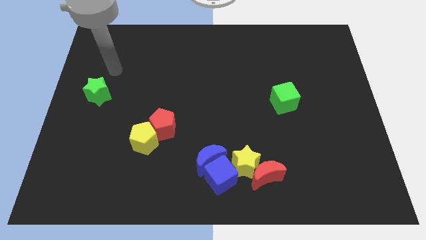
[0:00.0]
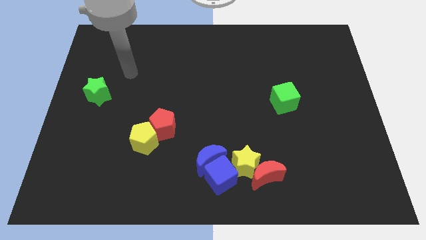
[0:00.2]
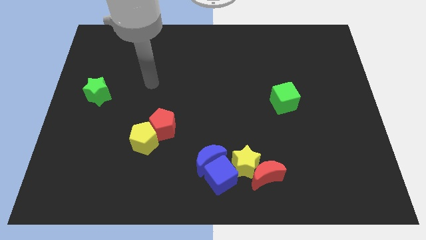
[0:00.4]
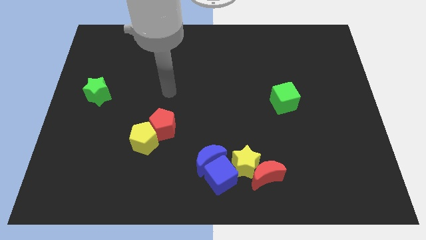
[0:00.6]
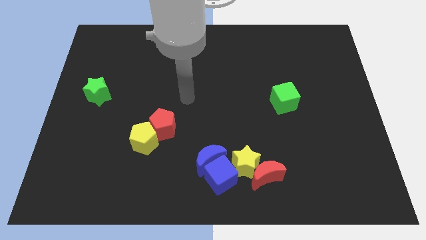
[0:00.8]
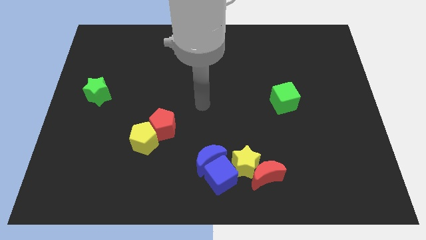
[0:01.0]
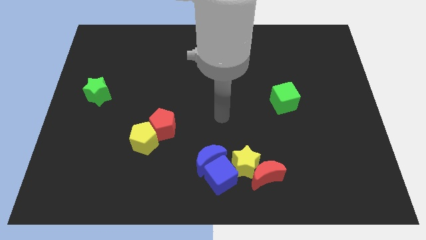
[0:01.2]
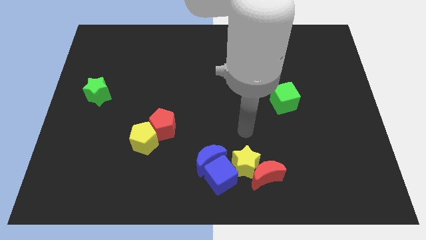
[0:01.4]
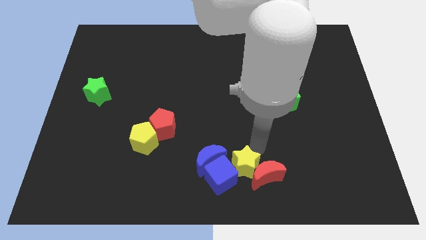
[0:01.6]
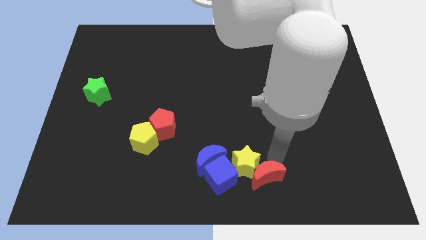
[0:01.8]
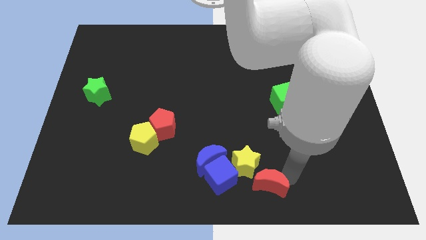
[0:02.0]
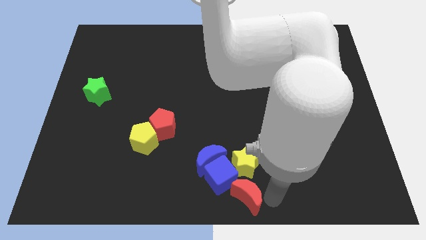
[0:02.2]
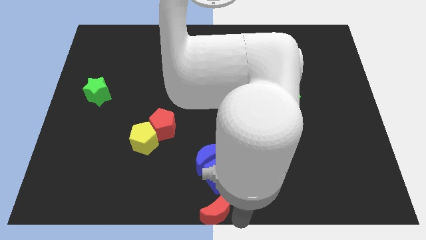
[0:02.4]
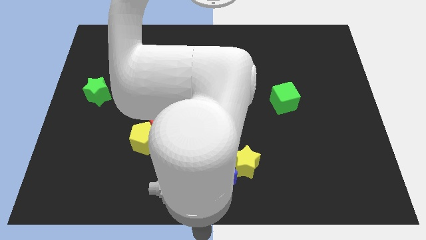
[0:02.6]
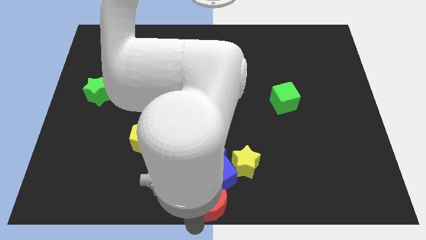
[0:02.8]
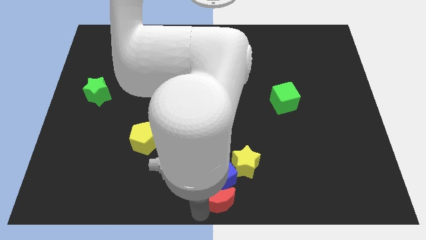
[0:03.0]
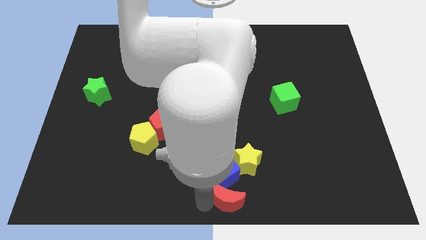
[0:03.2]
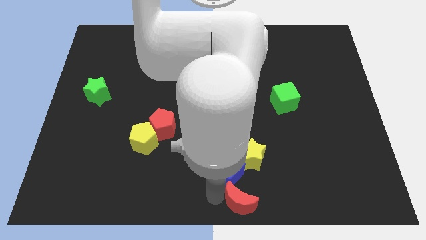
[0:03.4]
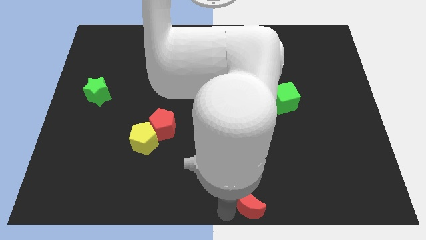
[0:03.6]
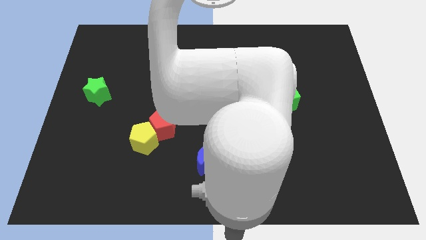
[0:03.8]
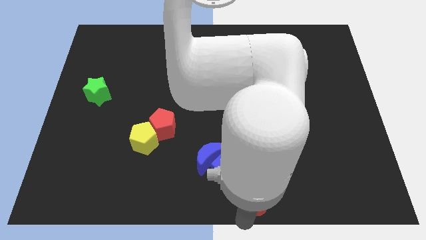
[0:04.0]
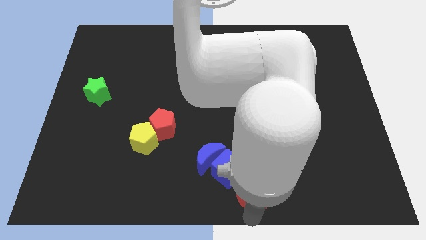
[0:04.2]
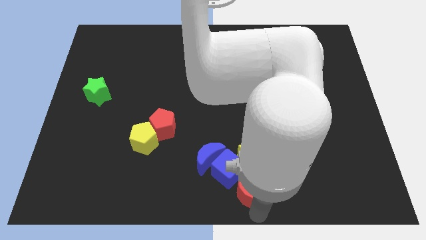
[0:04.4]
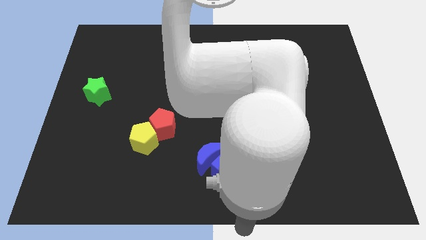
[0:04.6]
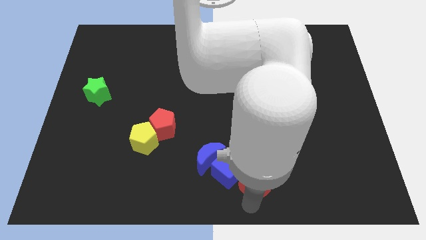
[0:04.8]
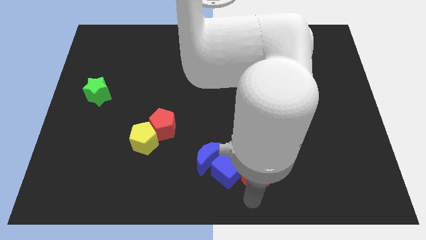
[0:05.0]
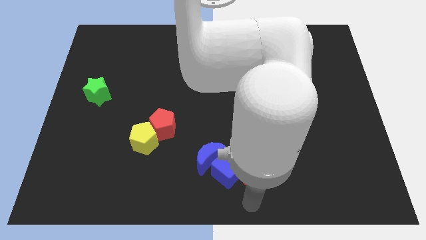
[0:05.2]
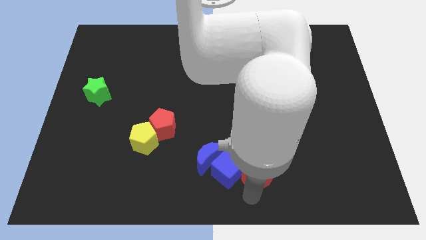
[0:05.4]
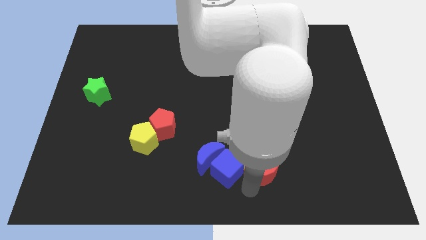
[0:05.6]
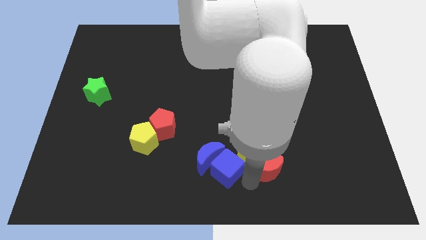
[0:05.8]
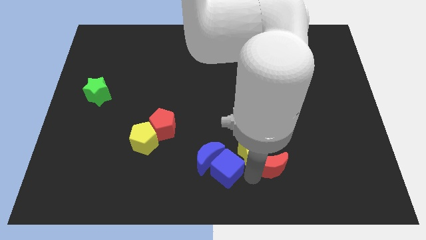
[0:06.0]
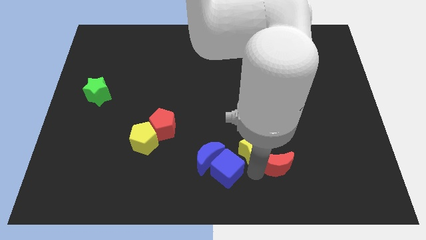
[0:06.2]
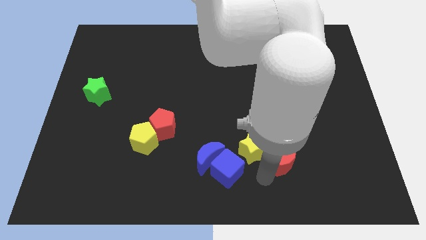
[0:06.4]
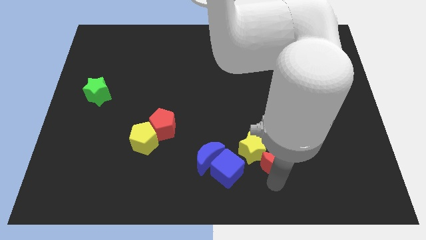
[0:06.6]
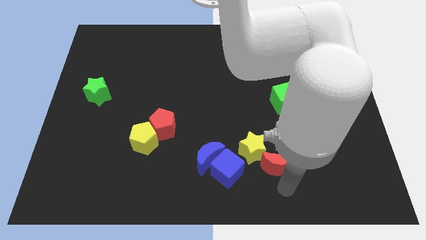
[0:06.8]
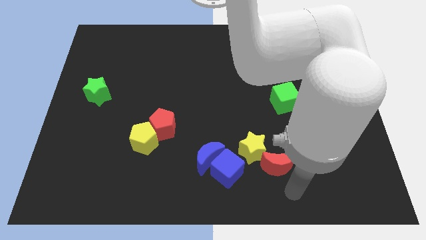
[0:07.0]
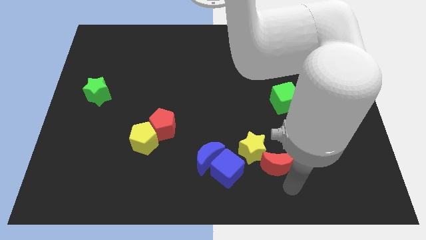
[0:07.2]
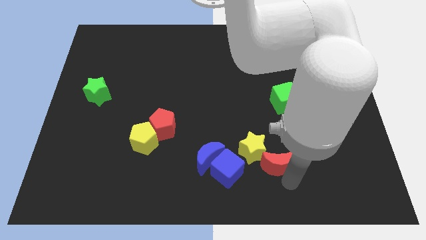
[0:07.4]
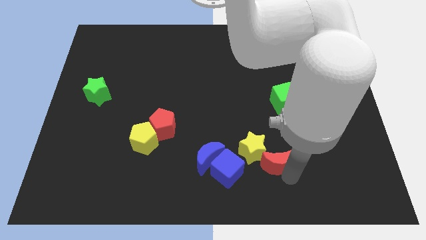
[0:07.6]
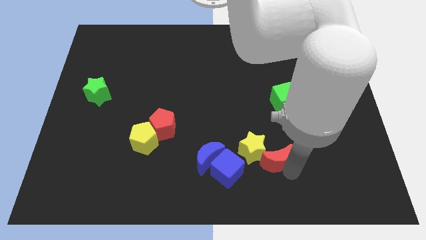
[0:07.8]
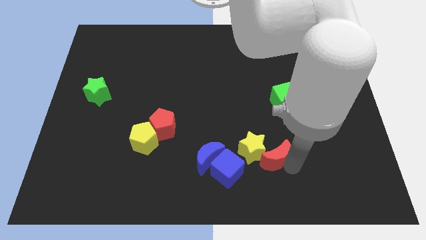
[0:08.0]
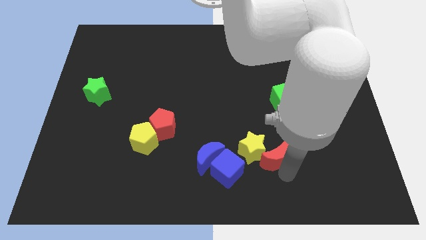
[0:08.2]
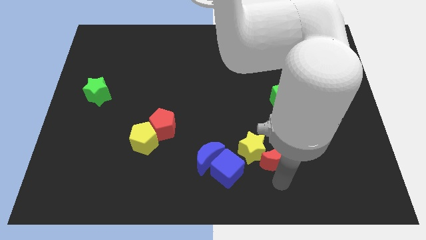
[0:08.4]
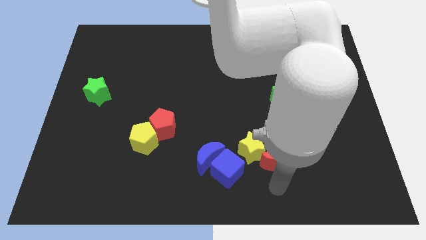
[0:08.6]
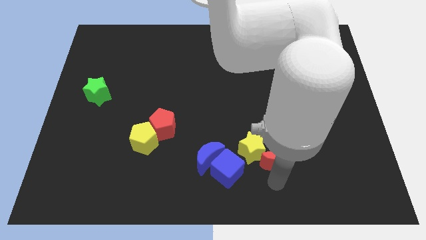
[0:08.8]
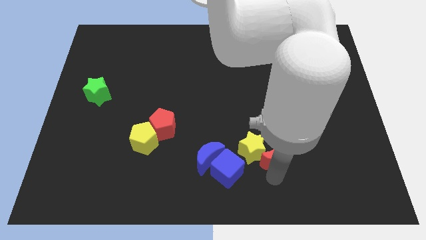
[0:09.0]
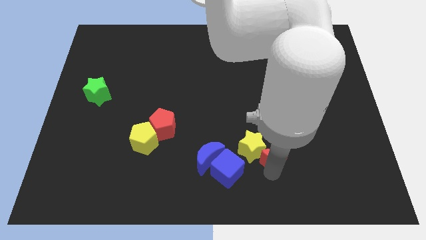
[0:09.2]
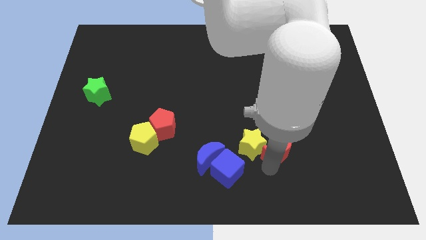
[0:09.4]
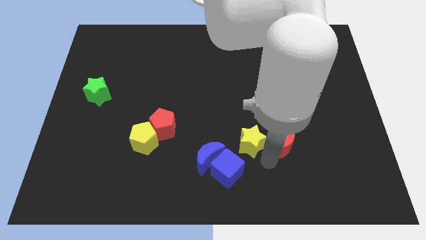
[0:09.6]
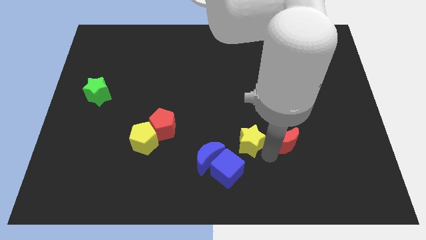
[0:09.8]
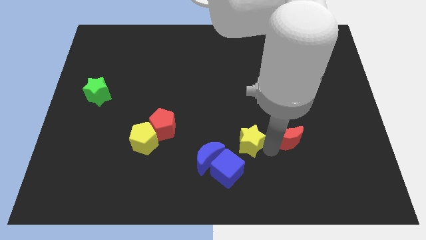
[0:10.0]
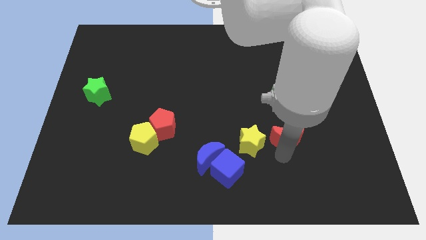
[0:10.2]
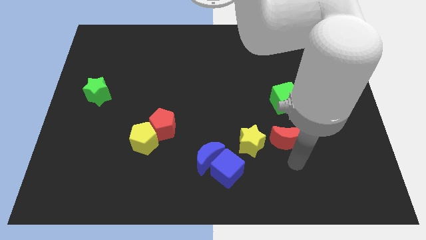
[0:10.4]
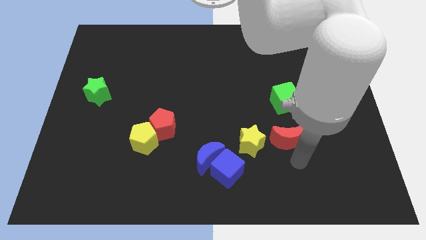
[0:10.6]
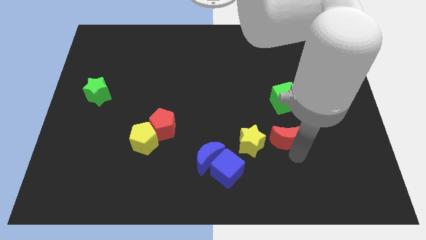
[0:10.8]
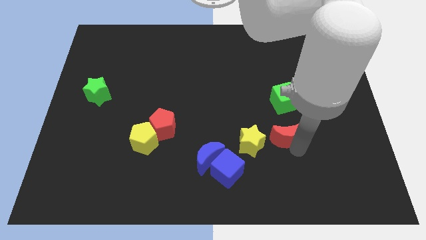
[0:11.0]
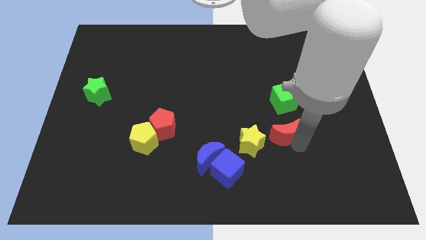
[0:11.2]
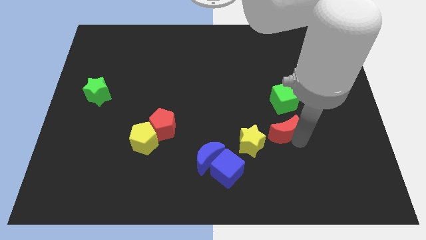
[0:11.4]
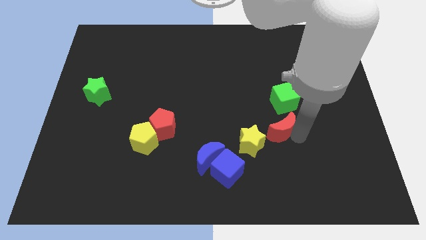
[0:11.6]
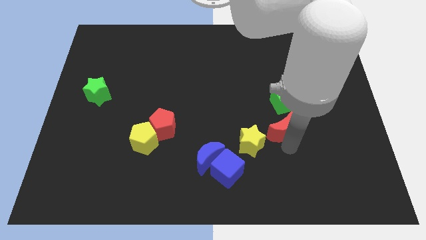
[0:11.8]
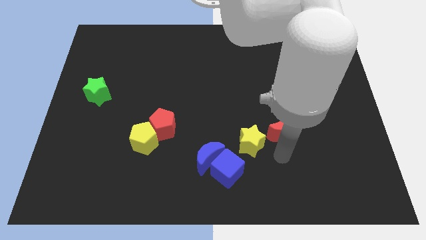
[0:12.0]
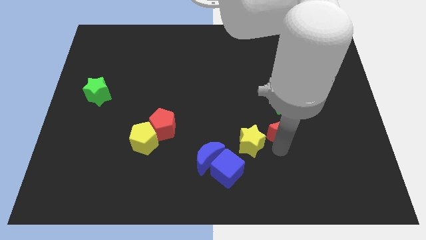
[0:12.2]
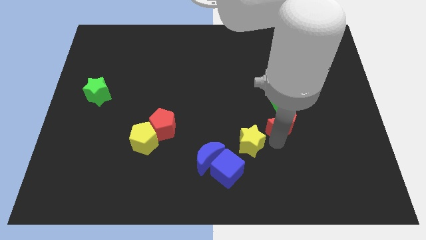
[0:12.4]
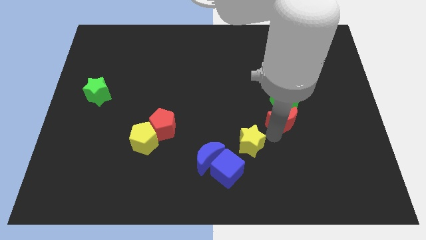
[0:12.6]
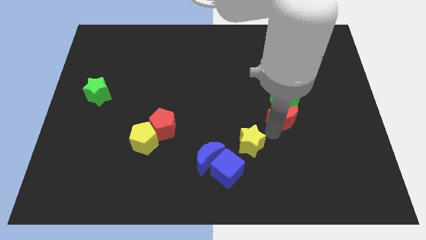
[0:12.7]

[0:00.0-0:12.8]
move the red moon towards the green cube
